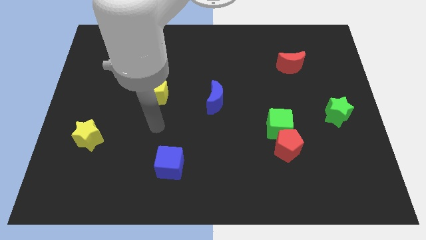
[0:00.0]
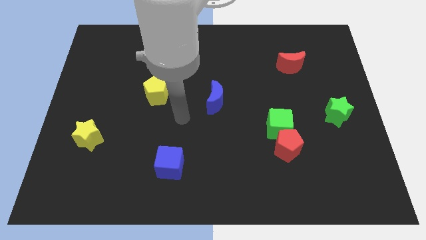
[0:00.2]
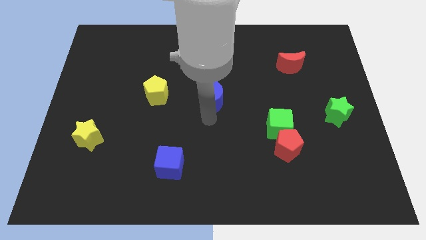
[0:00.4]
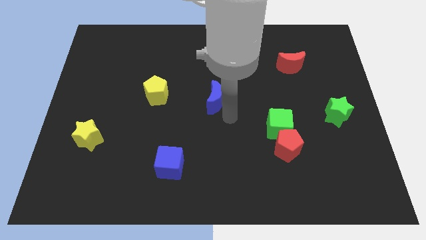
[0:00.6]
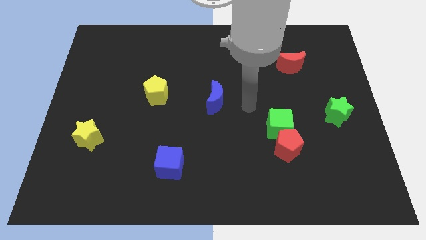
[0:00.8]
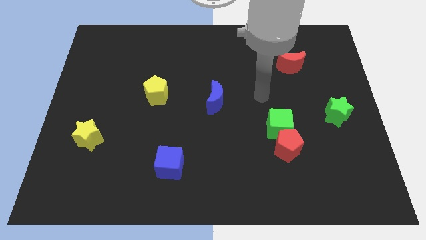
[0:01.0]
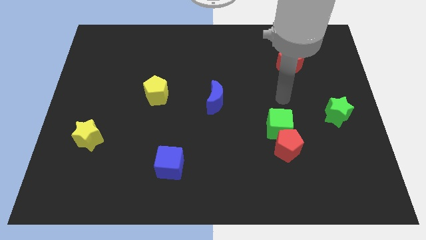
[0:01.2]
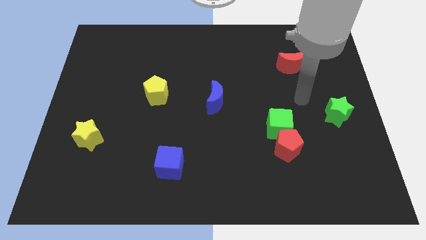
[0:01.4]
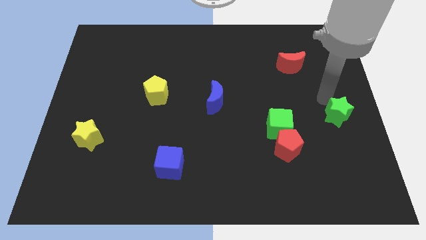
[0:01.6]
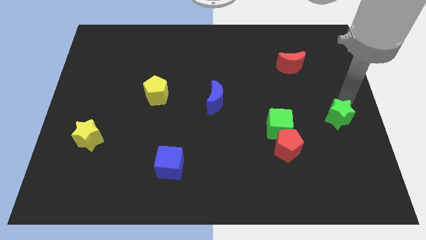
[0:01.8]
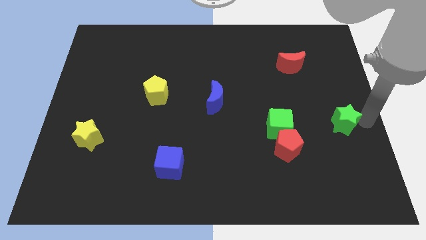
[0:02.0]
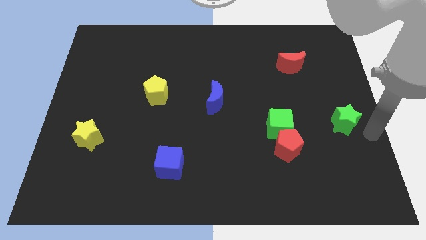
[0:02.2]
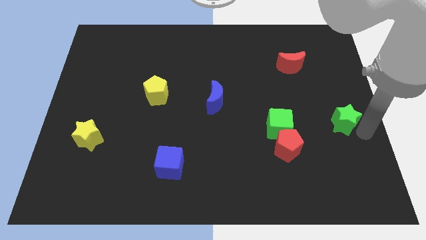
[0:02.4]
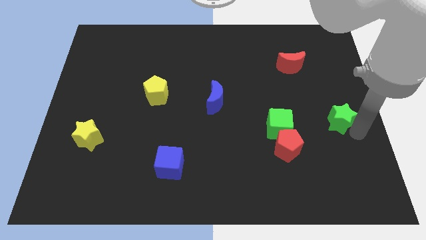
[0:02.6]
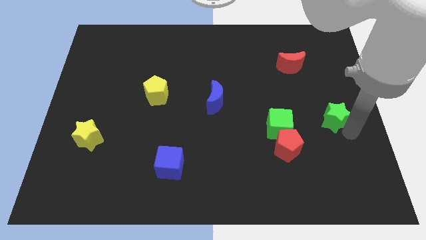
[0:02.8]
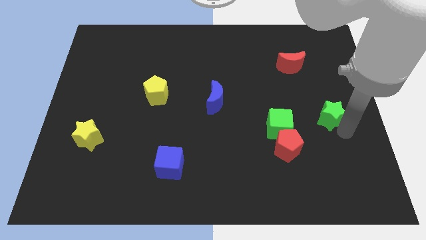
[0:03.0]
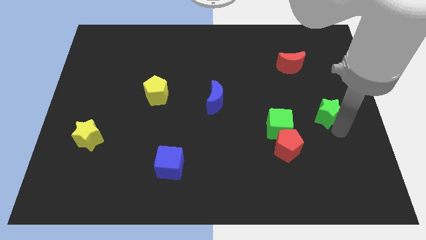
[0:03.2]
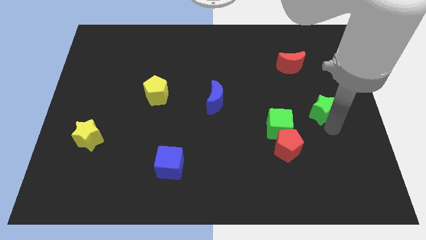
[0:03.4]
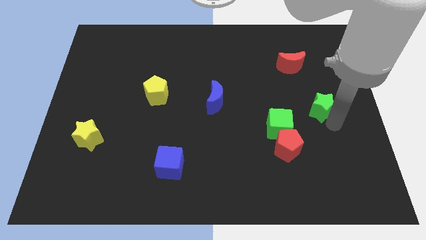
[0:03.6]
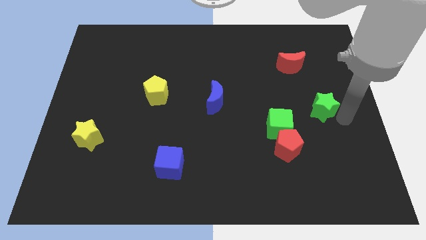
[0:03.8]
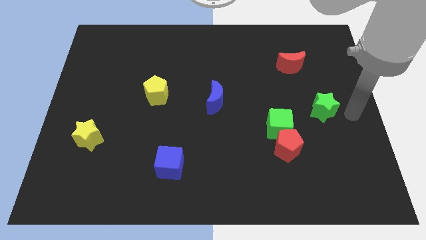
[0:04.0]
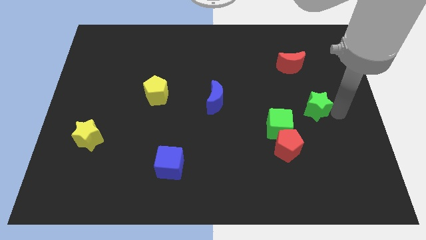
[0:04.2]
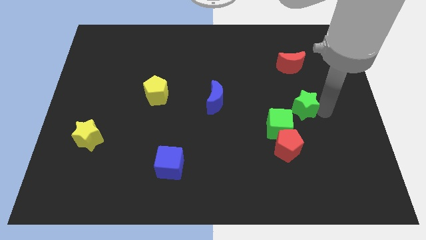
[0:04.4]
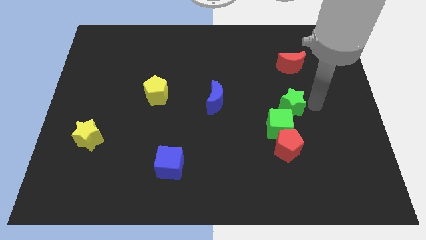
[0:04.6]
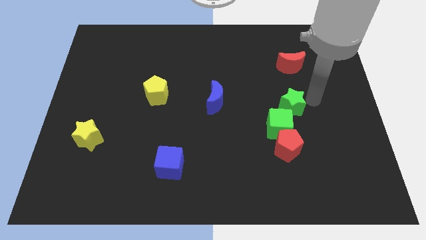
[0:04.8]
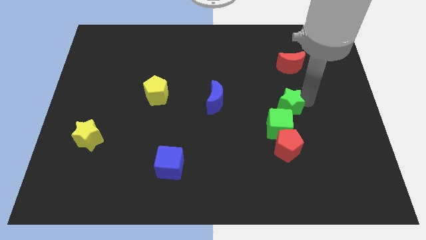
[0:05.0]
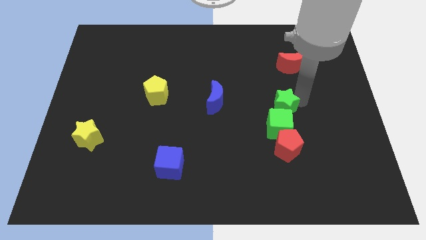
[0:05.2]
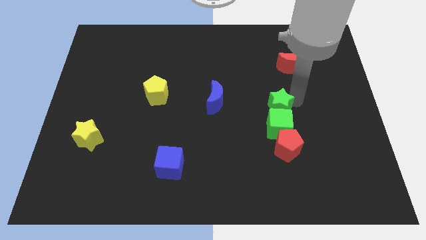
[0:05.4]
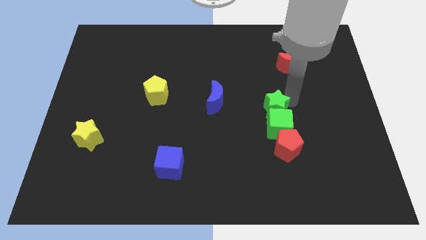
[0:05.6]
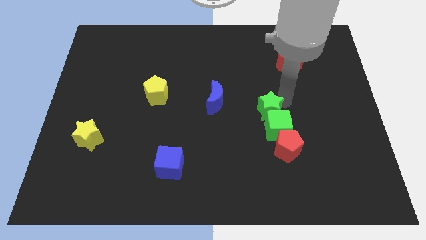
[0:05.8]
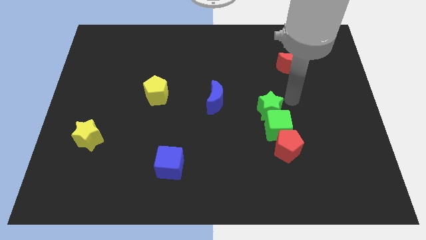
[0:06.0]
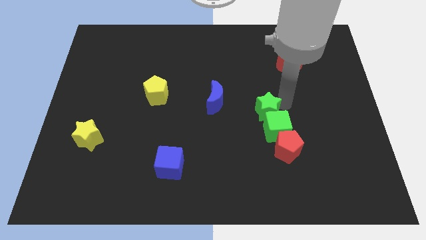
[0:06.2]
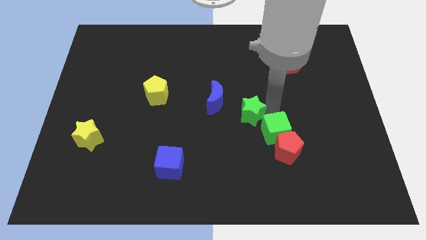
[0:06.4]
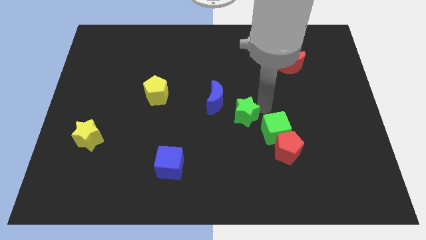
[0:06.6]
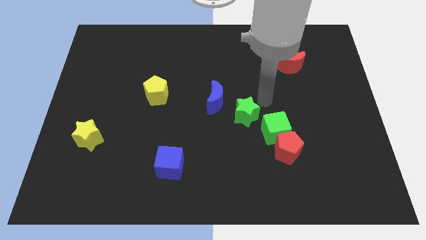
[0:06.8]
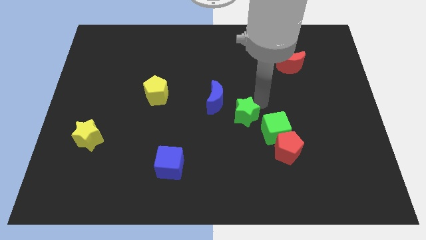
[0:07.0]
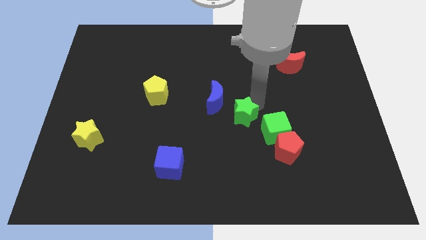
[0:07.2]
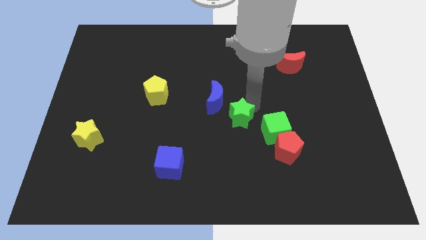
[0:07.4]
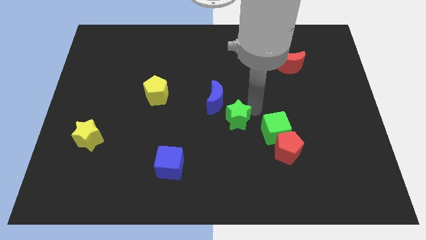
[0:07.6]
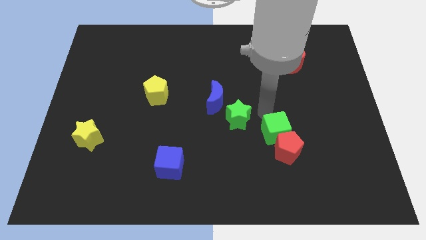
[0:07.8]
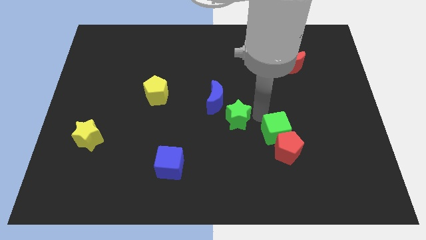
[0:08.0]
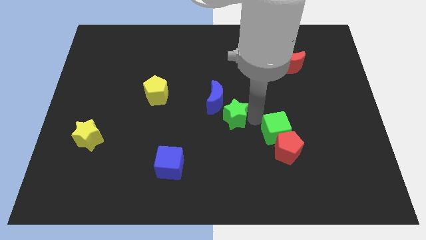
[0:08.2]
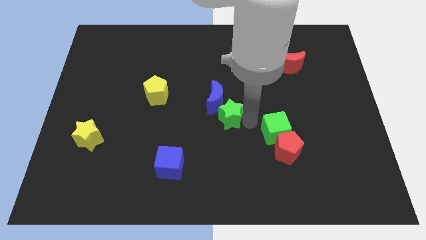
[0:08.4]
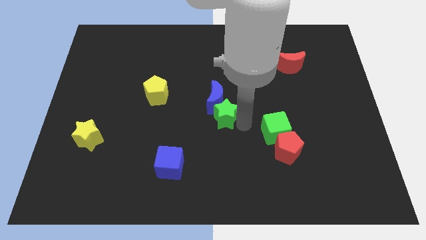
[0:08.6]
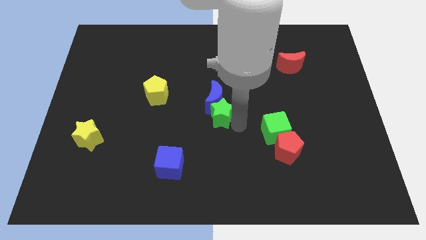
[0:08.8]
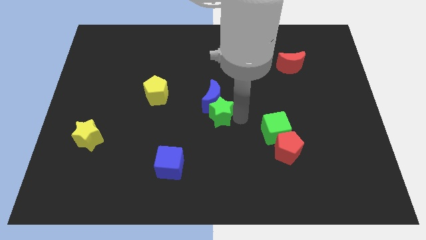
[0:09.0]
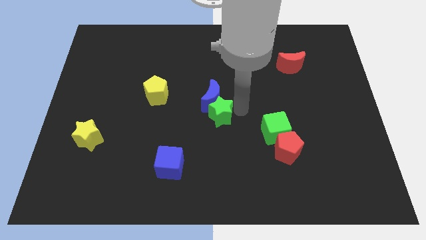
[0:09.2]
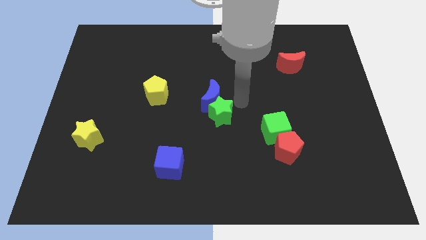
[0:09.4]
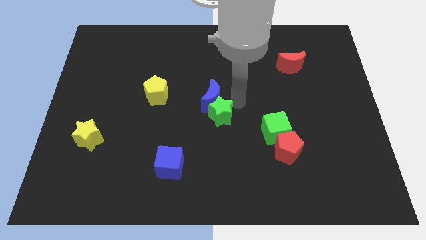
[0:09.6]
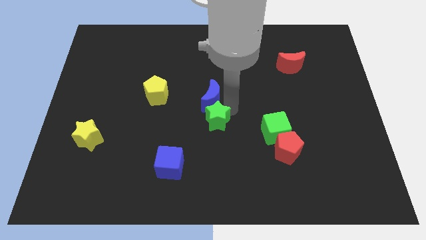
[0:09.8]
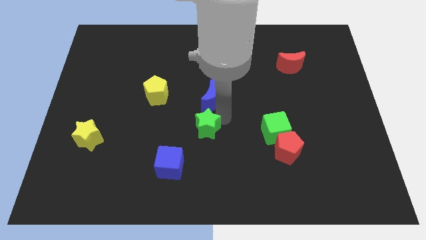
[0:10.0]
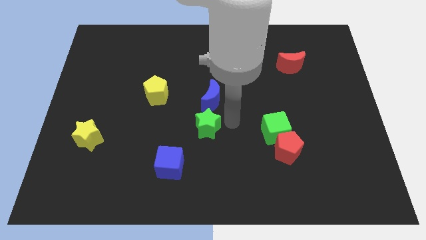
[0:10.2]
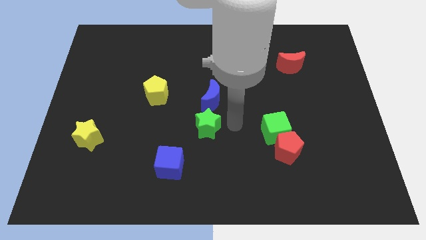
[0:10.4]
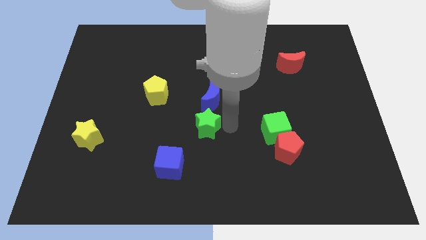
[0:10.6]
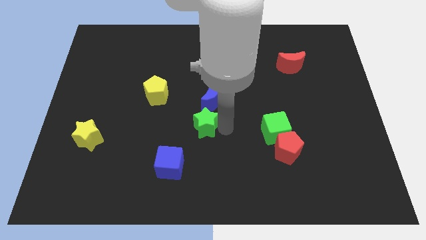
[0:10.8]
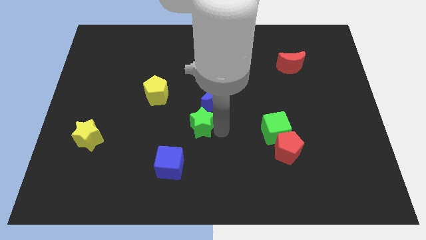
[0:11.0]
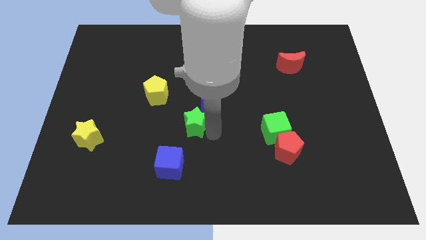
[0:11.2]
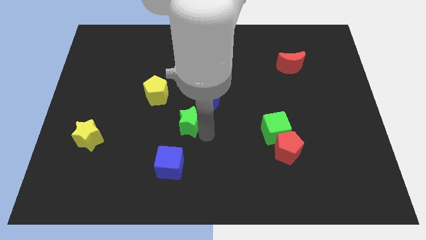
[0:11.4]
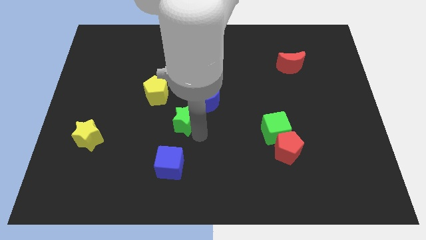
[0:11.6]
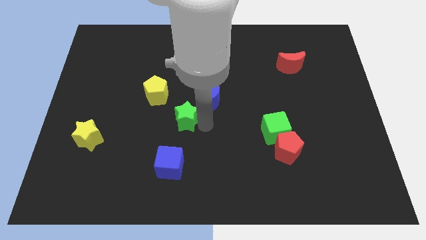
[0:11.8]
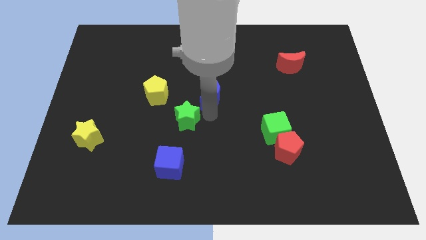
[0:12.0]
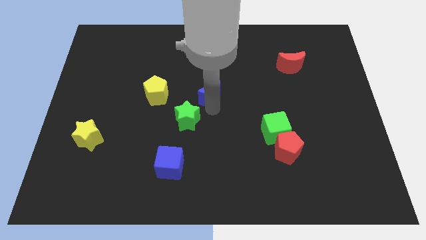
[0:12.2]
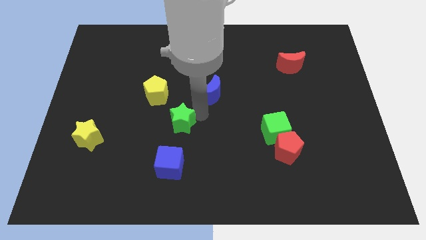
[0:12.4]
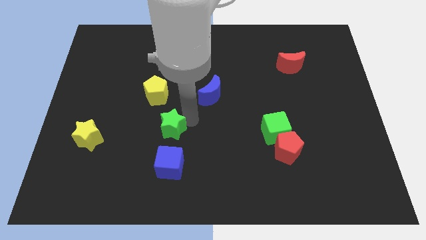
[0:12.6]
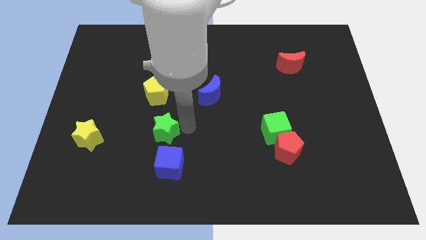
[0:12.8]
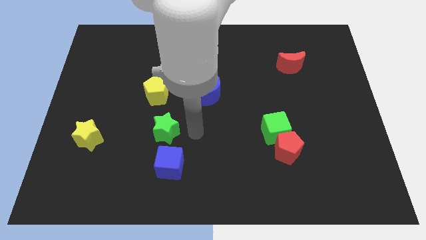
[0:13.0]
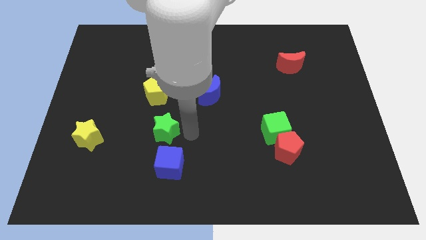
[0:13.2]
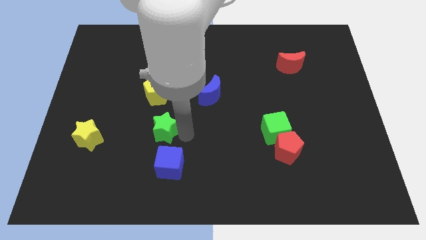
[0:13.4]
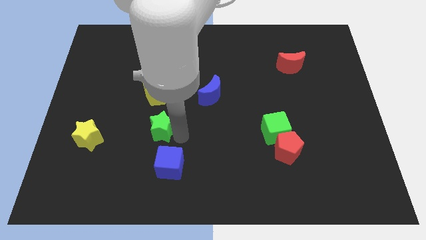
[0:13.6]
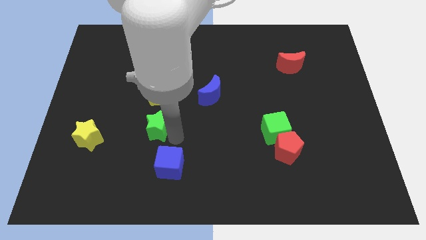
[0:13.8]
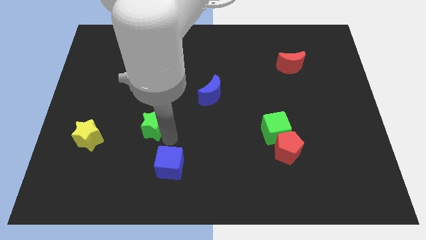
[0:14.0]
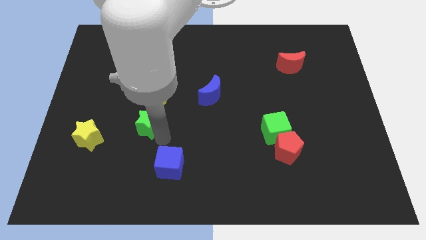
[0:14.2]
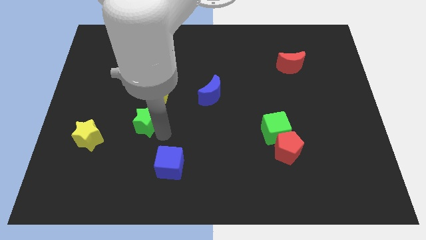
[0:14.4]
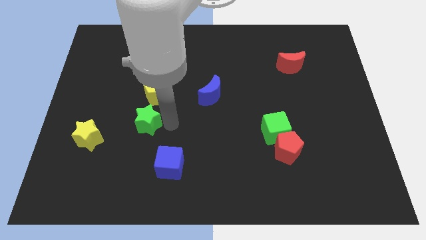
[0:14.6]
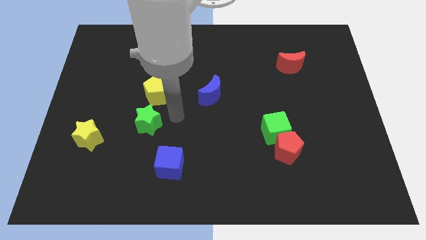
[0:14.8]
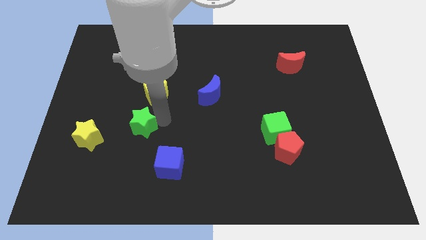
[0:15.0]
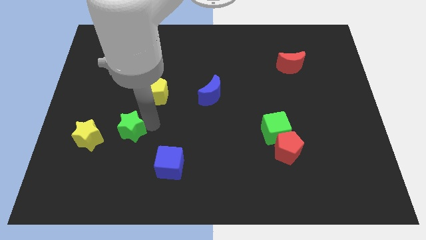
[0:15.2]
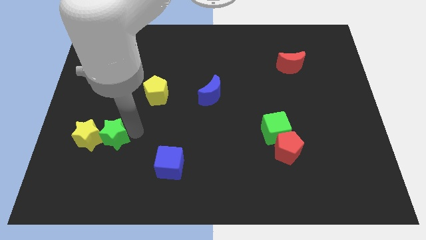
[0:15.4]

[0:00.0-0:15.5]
push the green star towards the yellow star

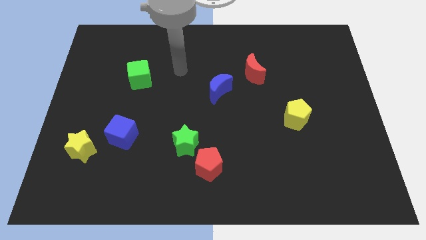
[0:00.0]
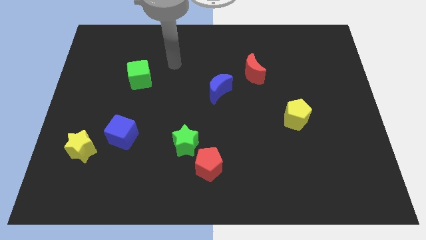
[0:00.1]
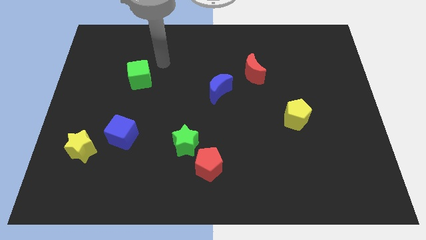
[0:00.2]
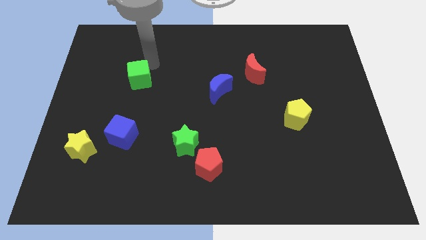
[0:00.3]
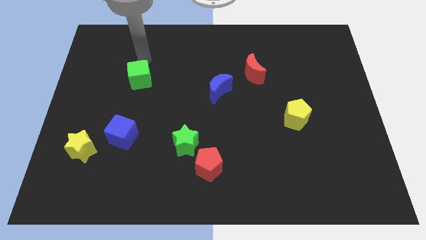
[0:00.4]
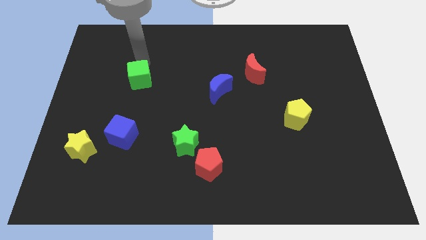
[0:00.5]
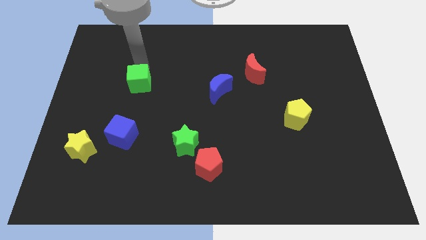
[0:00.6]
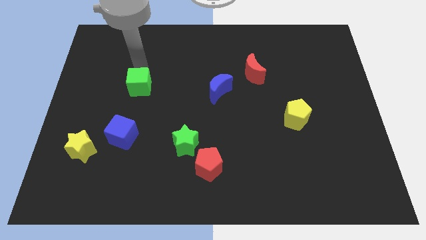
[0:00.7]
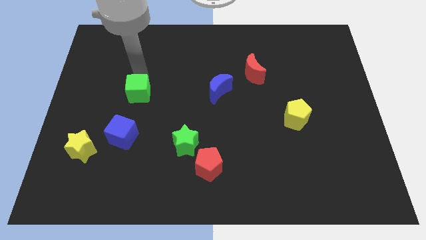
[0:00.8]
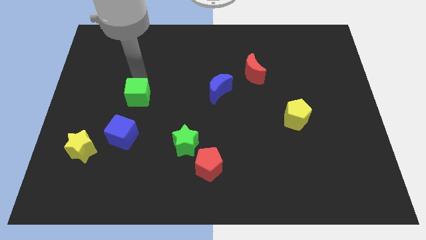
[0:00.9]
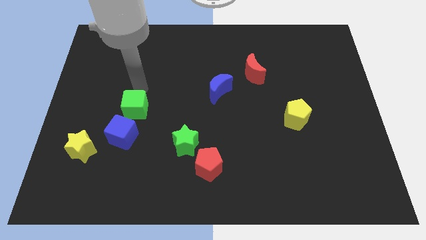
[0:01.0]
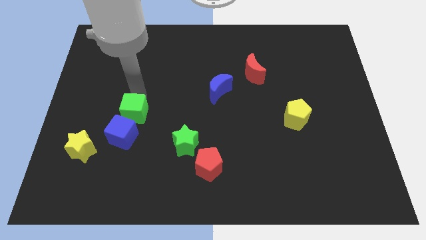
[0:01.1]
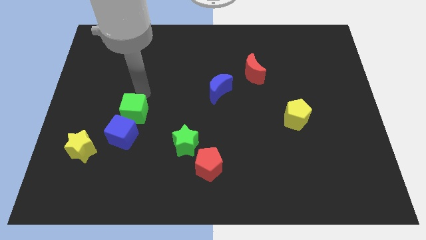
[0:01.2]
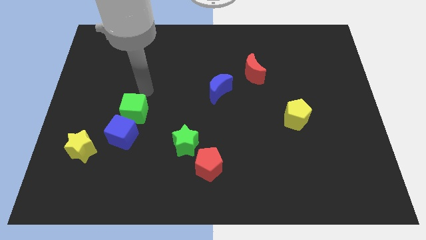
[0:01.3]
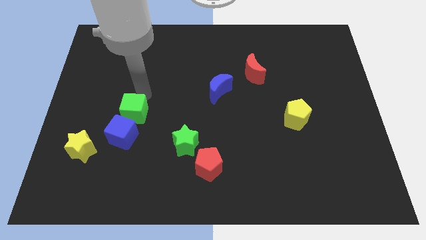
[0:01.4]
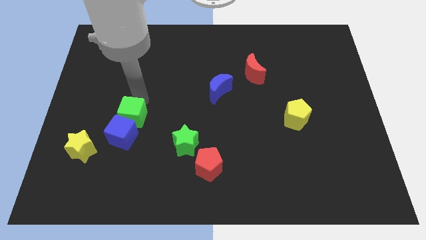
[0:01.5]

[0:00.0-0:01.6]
slide the green cube to the blue cube
